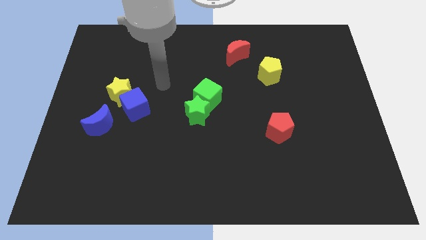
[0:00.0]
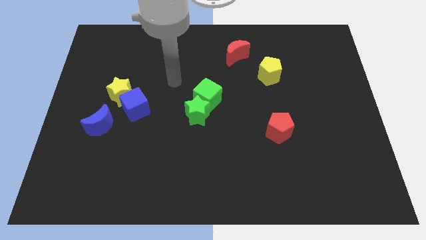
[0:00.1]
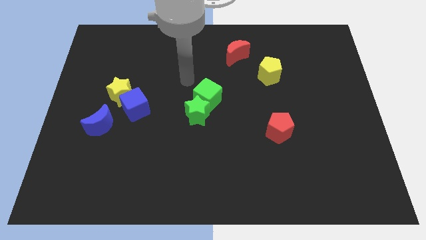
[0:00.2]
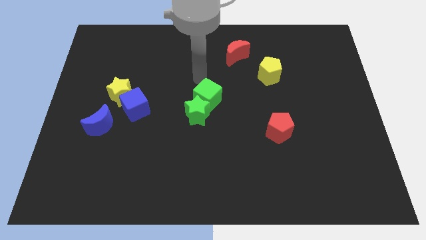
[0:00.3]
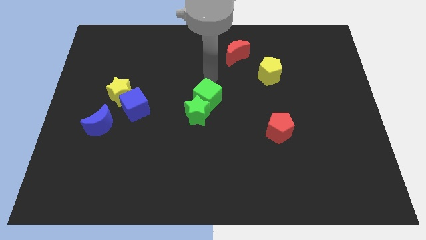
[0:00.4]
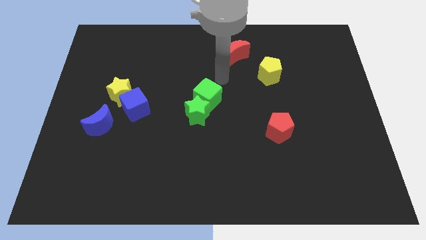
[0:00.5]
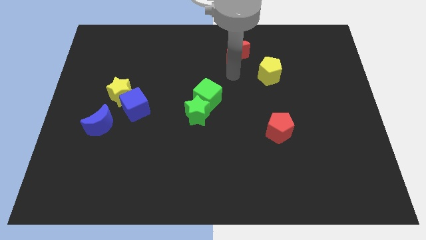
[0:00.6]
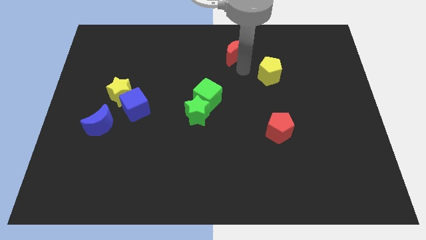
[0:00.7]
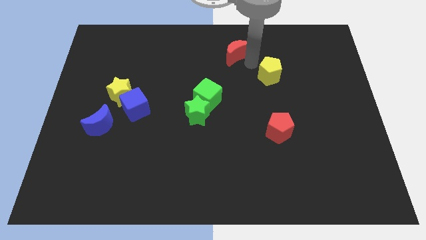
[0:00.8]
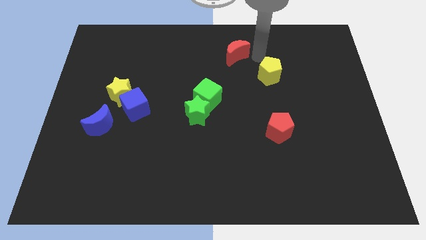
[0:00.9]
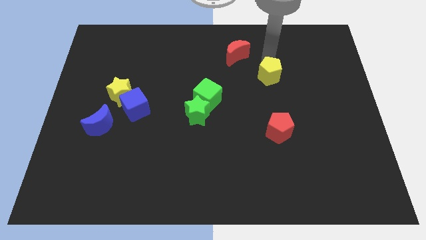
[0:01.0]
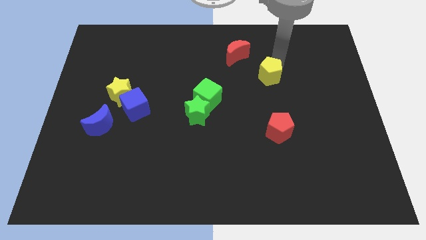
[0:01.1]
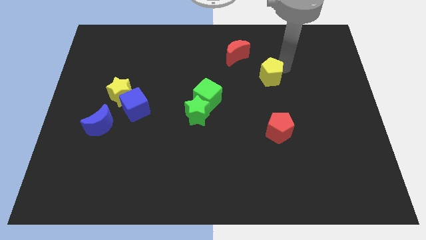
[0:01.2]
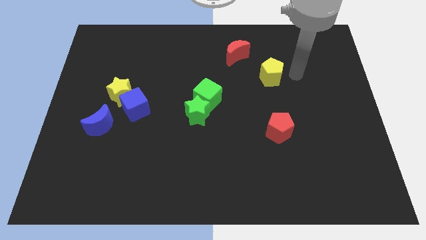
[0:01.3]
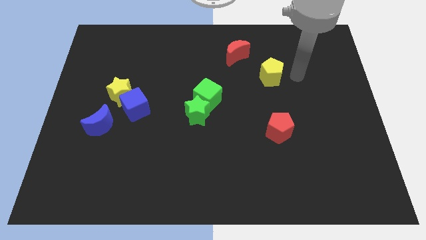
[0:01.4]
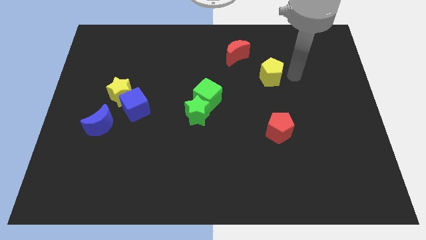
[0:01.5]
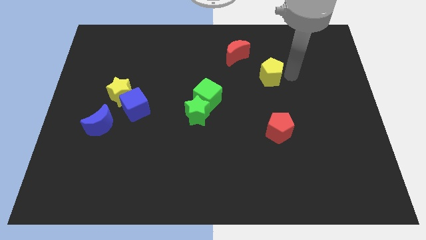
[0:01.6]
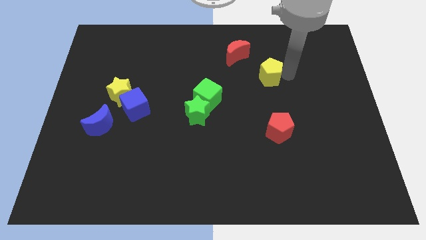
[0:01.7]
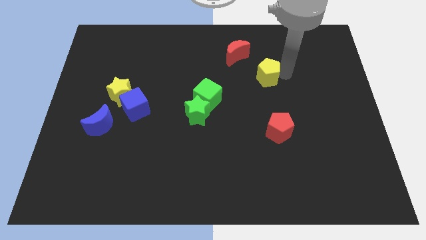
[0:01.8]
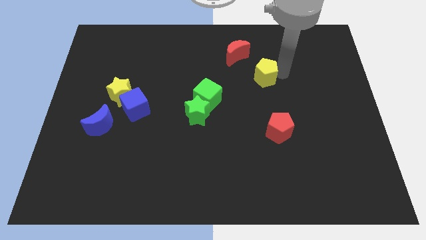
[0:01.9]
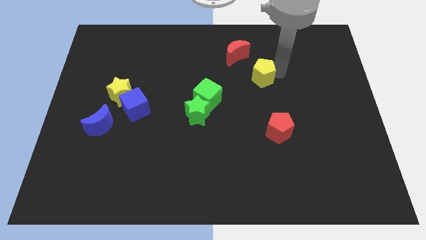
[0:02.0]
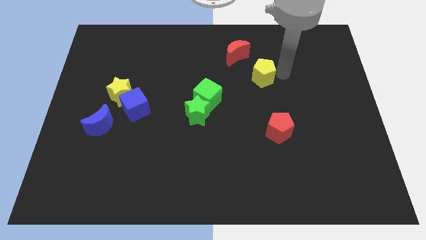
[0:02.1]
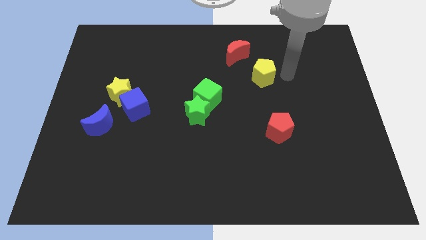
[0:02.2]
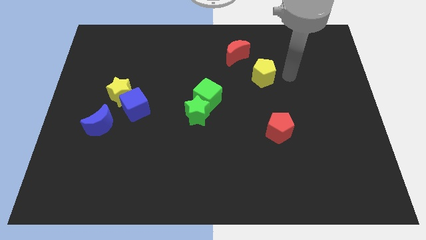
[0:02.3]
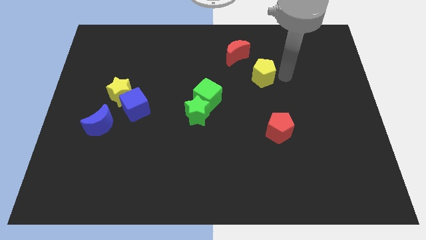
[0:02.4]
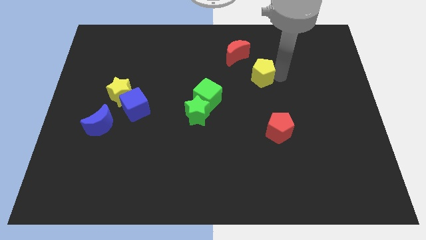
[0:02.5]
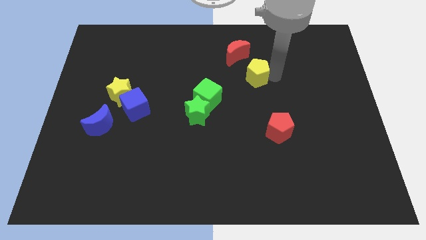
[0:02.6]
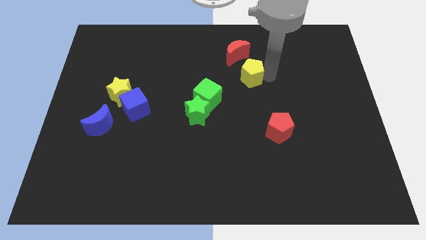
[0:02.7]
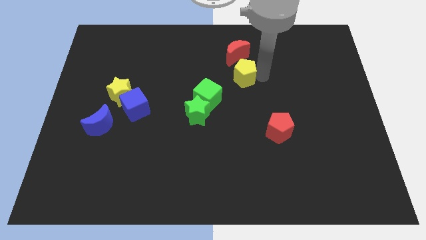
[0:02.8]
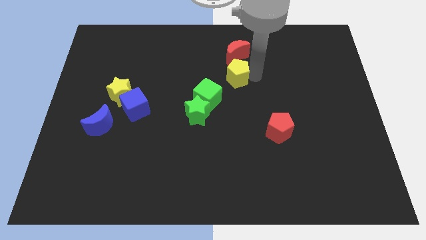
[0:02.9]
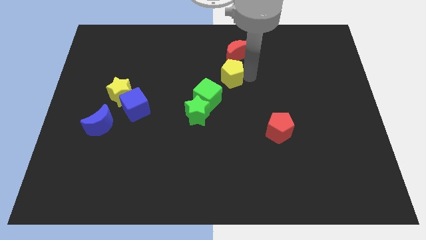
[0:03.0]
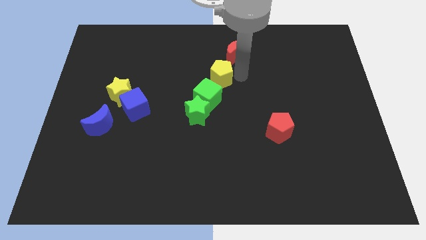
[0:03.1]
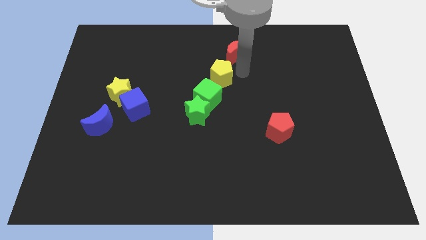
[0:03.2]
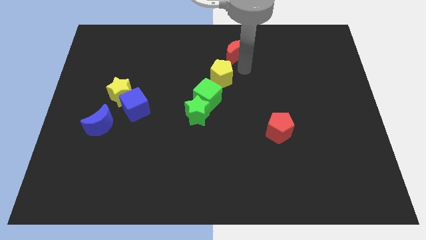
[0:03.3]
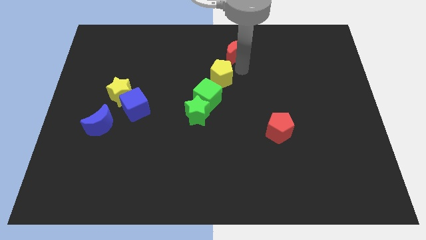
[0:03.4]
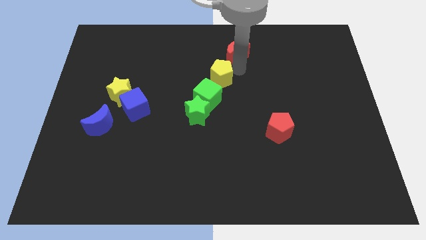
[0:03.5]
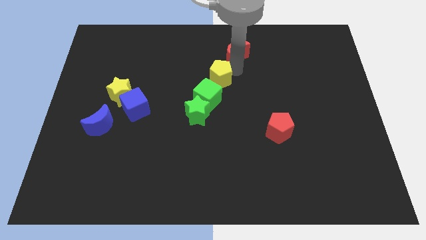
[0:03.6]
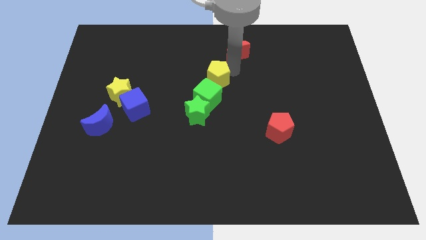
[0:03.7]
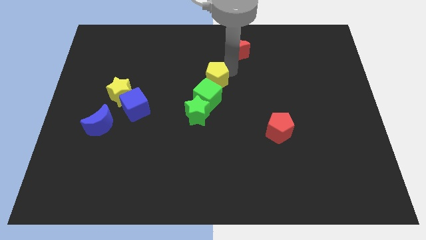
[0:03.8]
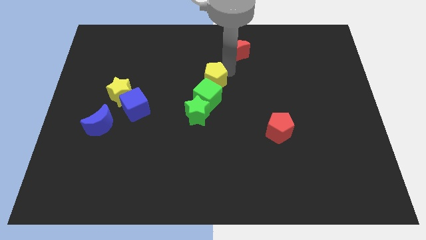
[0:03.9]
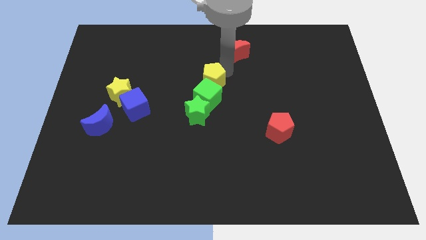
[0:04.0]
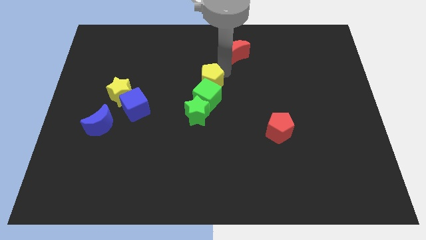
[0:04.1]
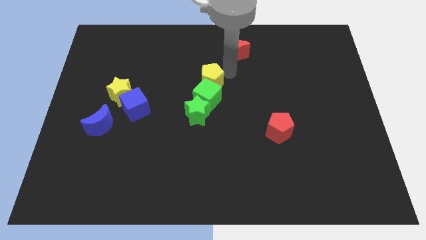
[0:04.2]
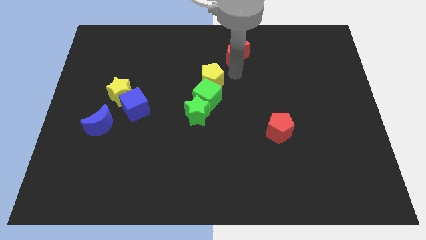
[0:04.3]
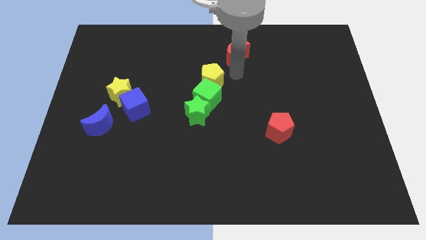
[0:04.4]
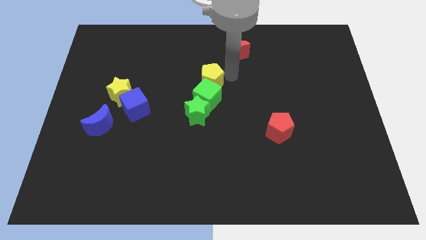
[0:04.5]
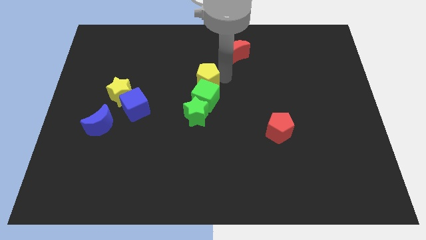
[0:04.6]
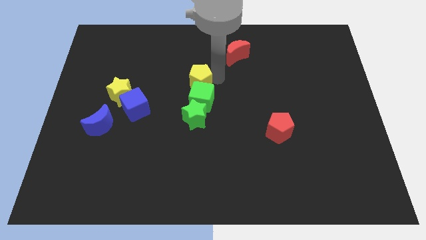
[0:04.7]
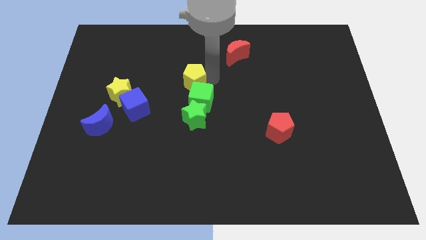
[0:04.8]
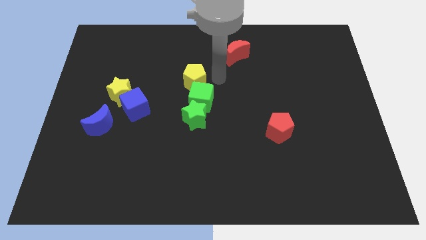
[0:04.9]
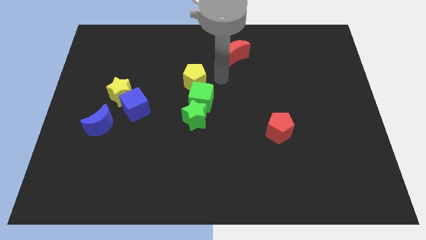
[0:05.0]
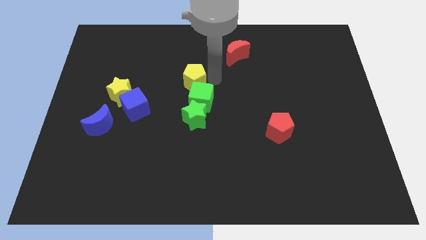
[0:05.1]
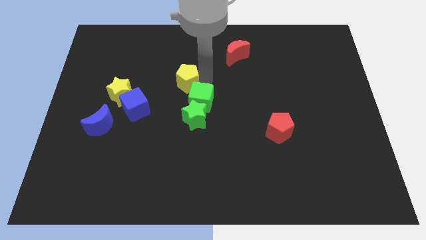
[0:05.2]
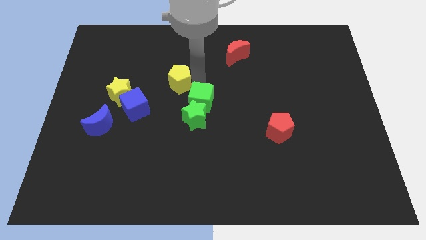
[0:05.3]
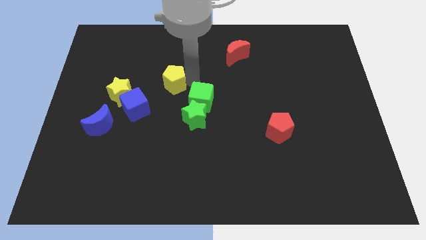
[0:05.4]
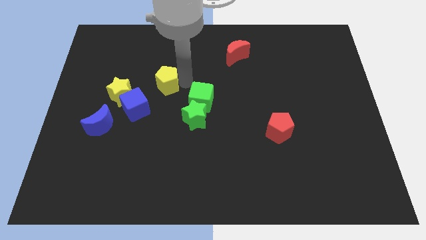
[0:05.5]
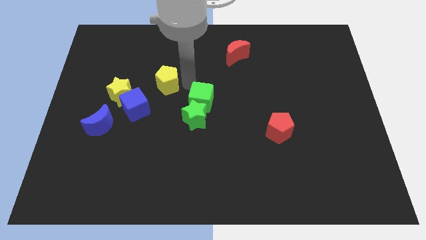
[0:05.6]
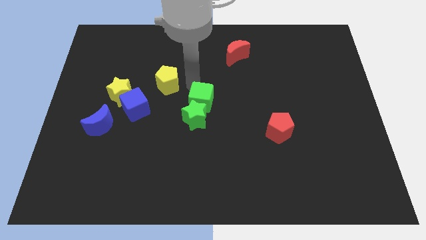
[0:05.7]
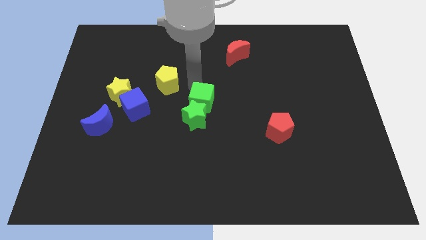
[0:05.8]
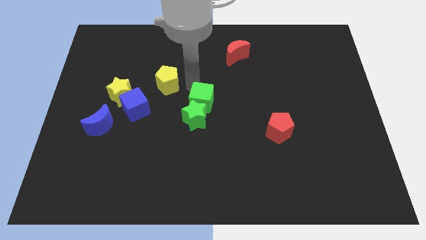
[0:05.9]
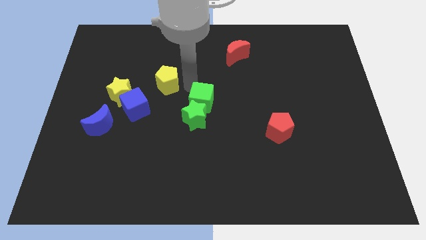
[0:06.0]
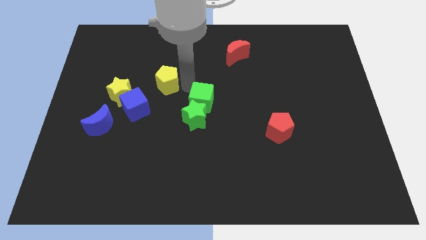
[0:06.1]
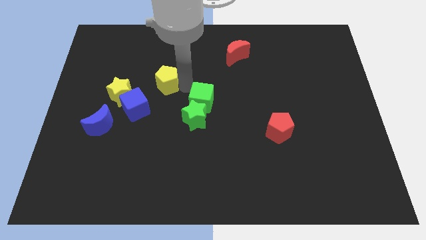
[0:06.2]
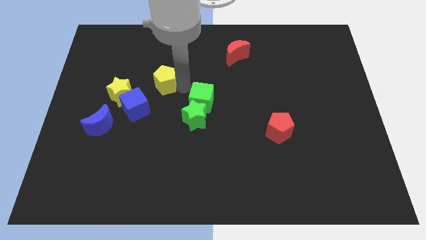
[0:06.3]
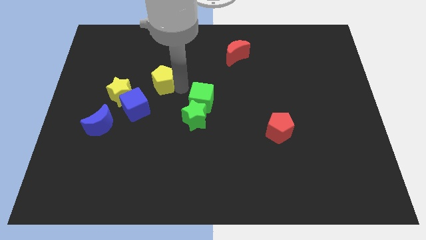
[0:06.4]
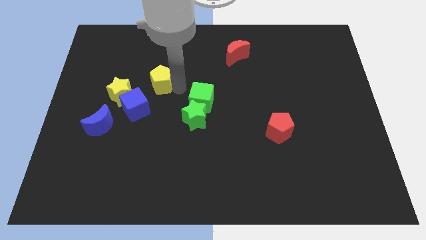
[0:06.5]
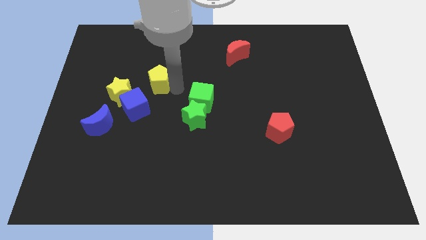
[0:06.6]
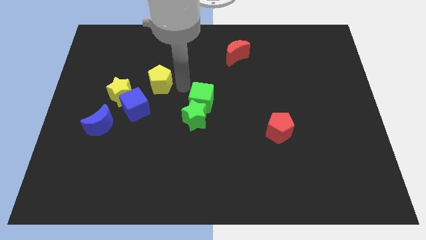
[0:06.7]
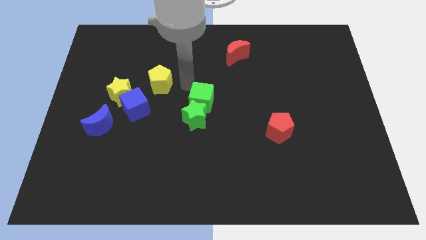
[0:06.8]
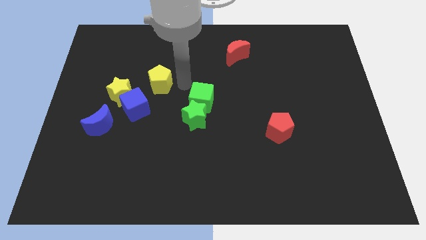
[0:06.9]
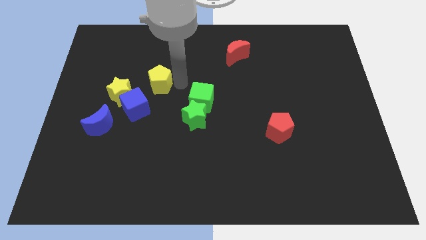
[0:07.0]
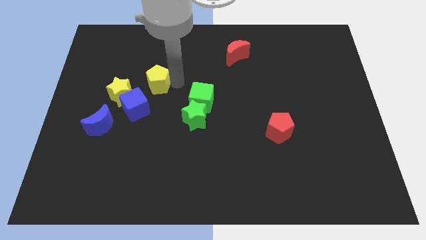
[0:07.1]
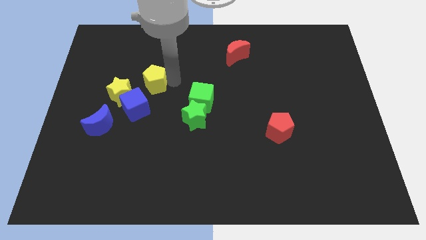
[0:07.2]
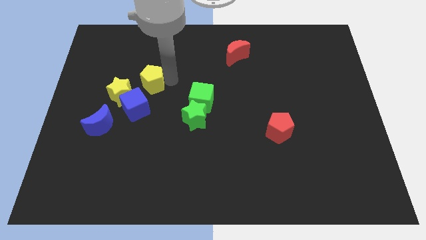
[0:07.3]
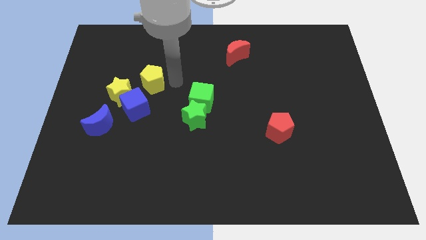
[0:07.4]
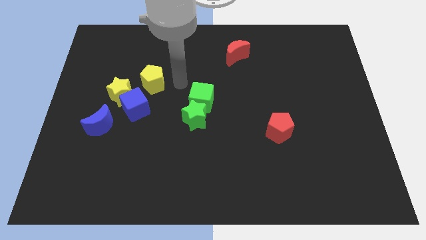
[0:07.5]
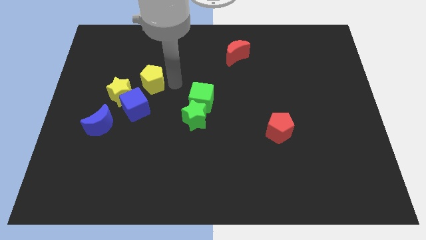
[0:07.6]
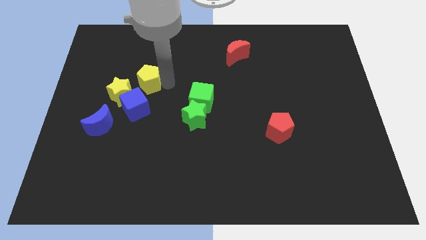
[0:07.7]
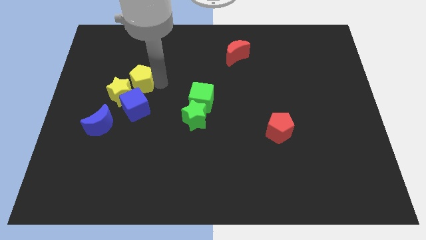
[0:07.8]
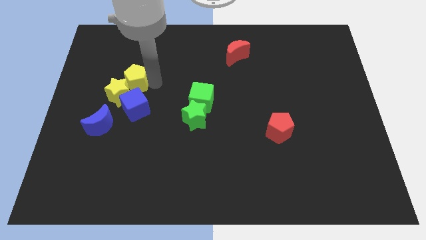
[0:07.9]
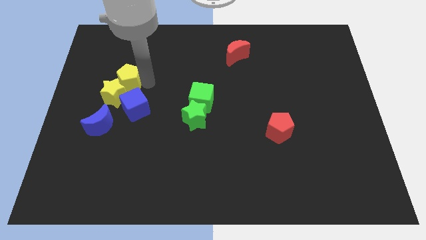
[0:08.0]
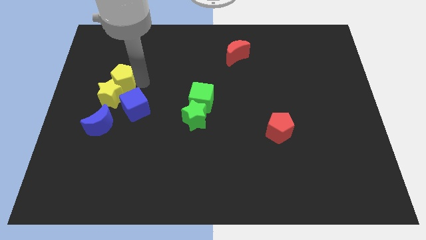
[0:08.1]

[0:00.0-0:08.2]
slide the yellow pentagon to the top side of the blue moon
